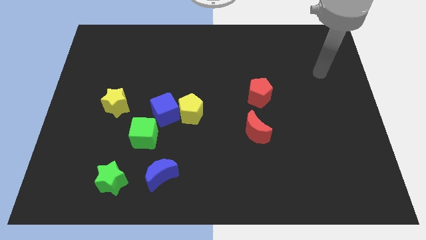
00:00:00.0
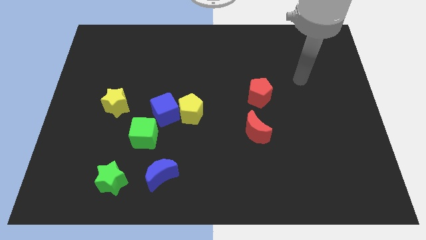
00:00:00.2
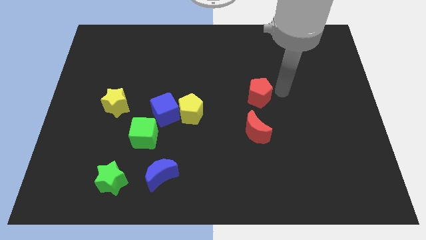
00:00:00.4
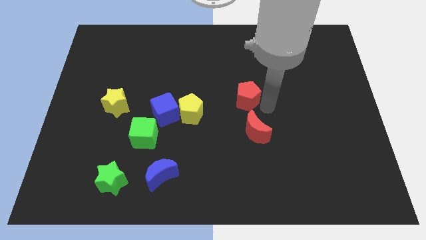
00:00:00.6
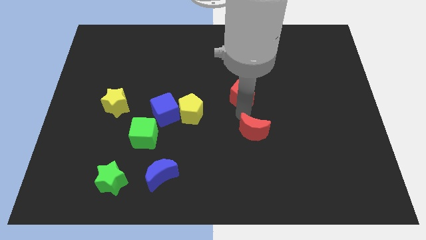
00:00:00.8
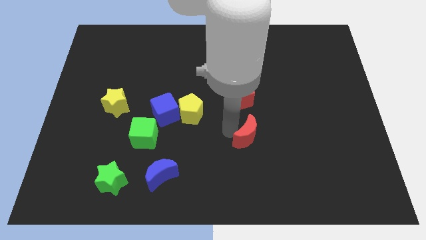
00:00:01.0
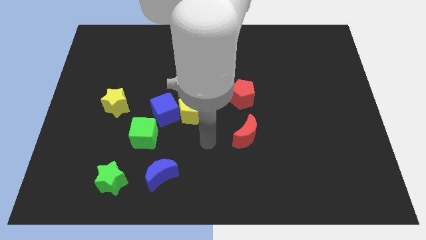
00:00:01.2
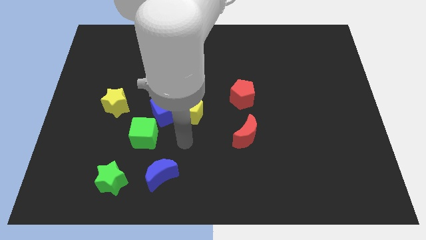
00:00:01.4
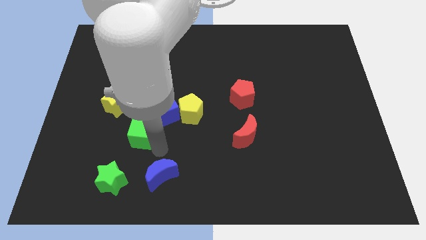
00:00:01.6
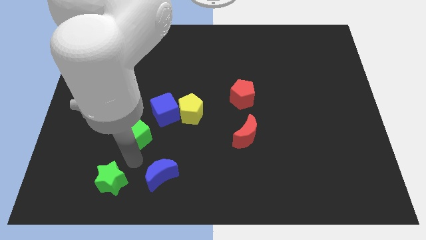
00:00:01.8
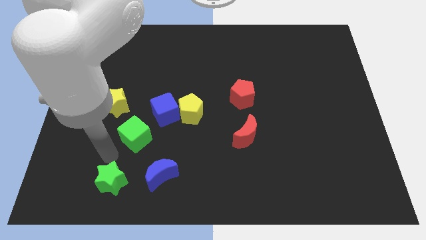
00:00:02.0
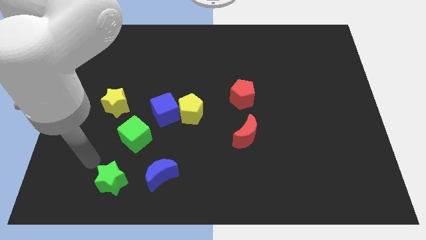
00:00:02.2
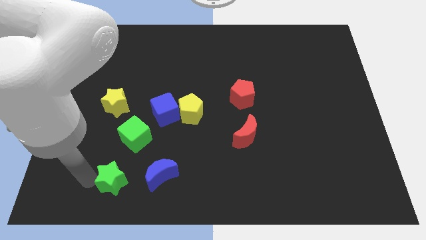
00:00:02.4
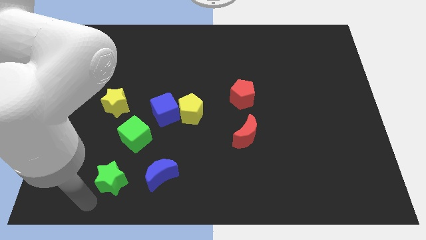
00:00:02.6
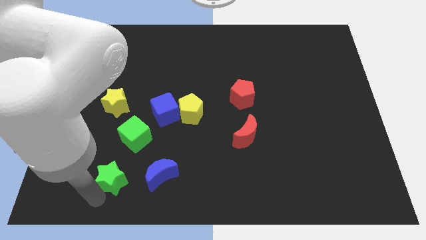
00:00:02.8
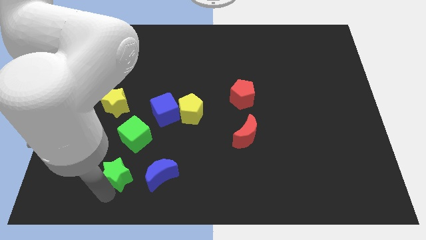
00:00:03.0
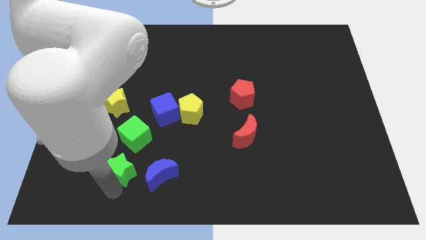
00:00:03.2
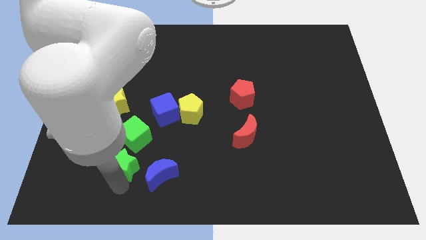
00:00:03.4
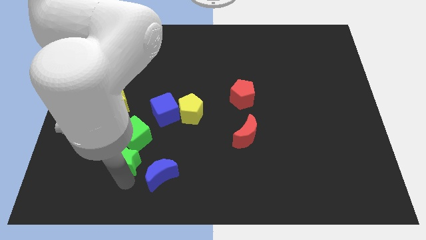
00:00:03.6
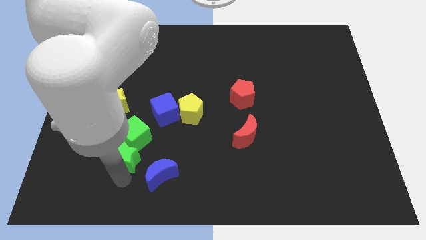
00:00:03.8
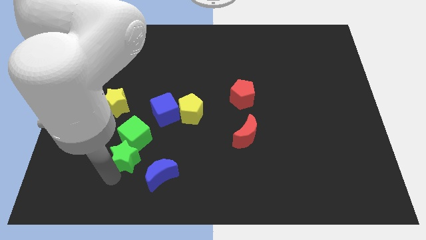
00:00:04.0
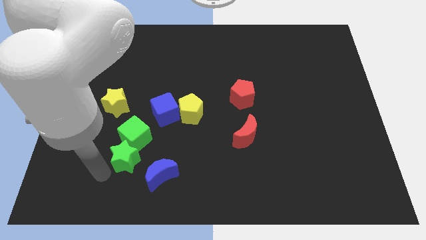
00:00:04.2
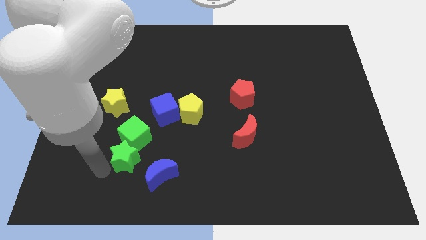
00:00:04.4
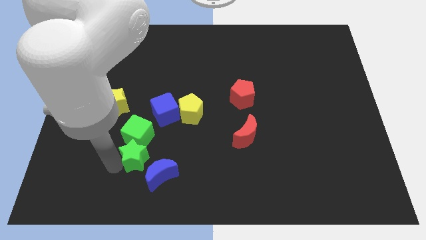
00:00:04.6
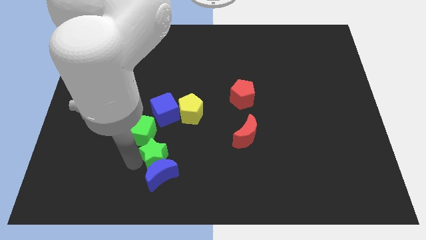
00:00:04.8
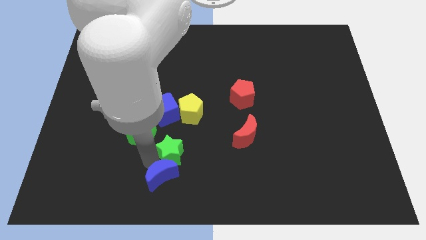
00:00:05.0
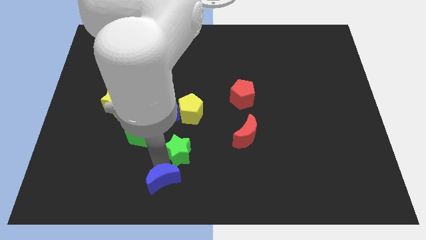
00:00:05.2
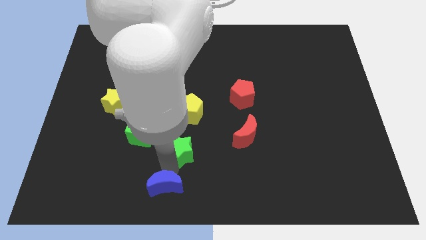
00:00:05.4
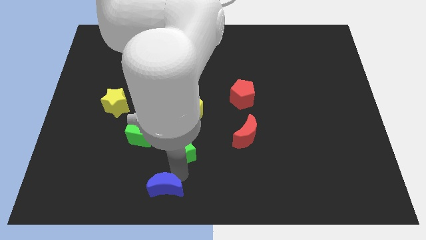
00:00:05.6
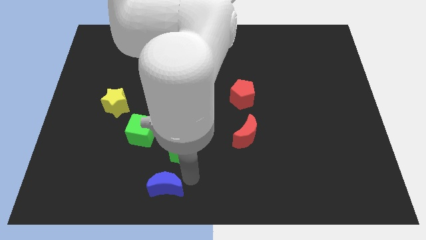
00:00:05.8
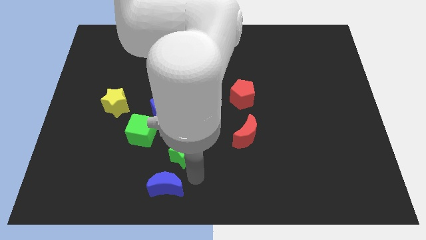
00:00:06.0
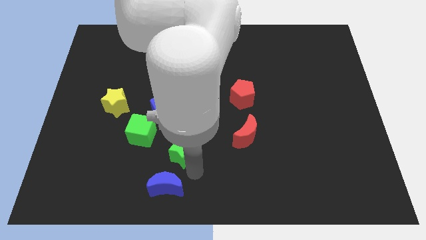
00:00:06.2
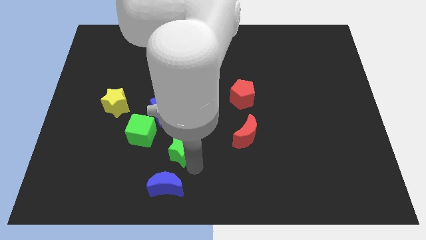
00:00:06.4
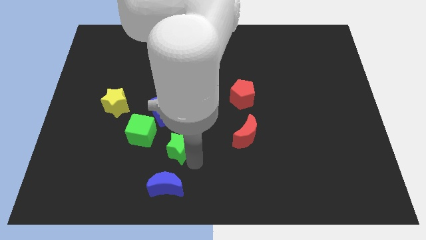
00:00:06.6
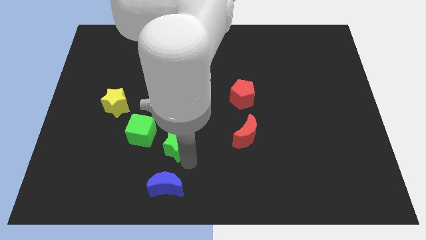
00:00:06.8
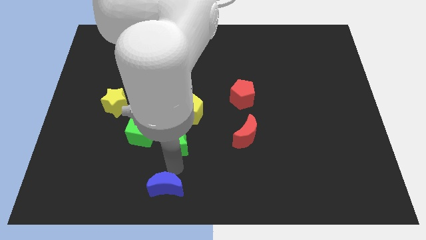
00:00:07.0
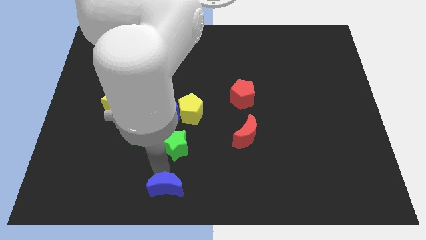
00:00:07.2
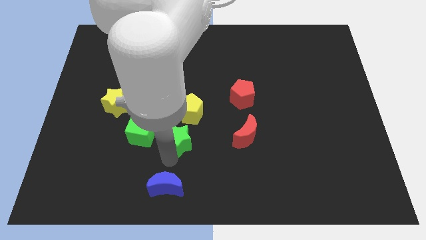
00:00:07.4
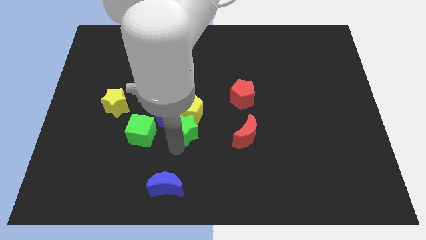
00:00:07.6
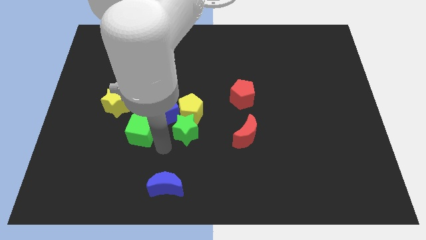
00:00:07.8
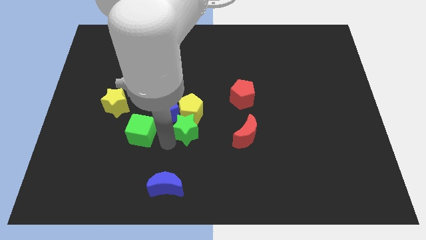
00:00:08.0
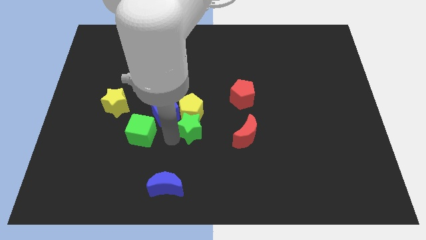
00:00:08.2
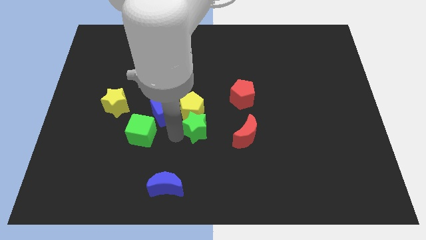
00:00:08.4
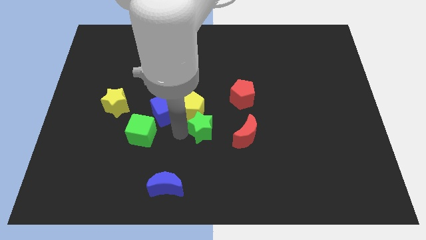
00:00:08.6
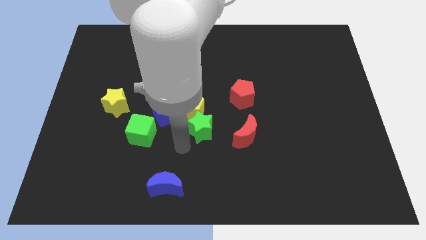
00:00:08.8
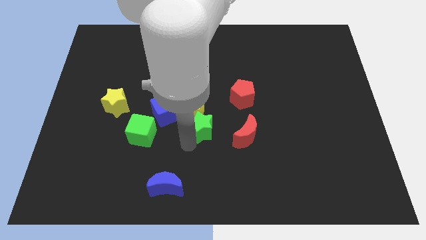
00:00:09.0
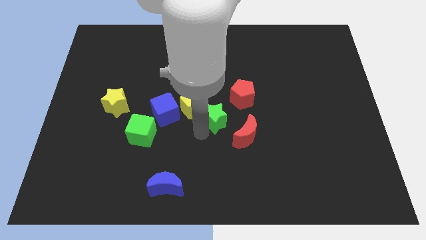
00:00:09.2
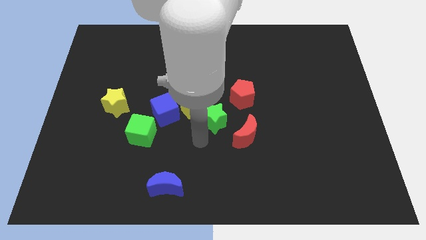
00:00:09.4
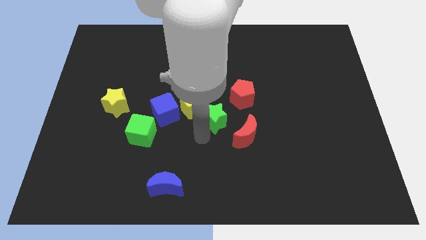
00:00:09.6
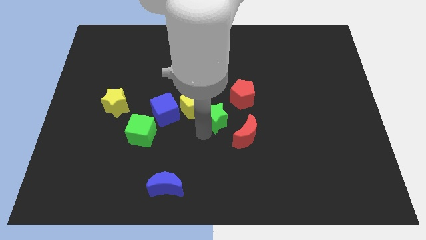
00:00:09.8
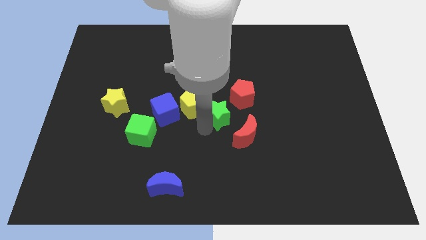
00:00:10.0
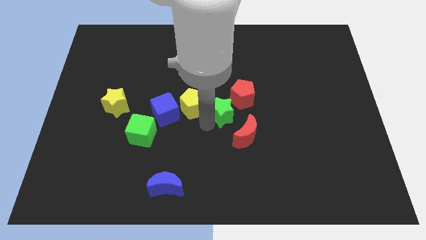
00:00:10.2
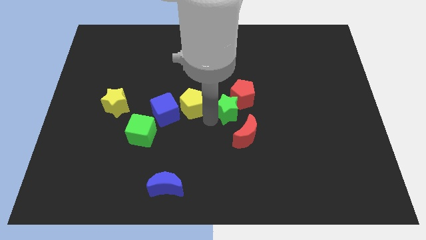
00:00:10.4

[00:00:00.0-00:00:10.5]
put the green star towards the red pentagon

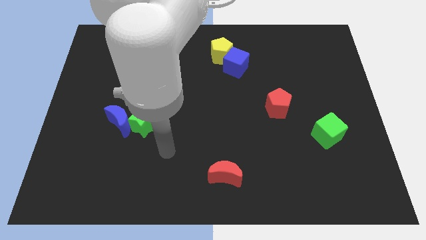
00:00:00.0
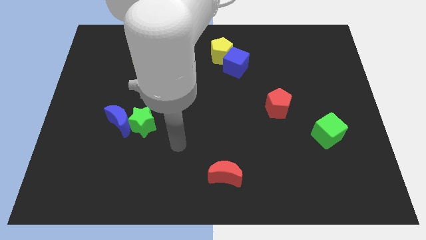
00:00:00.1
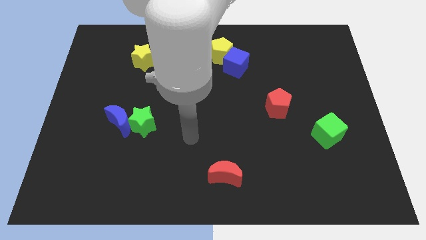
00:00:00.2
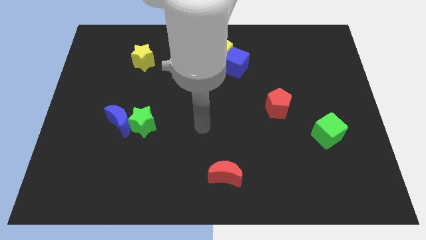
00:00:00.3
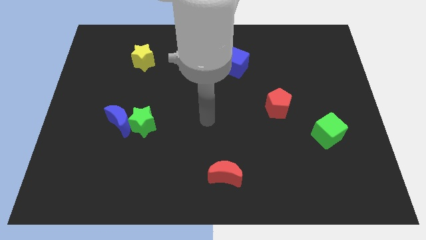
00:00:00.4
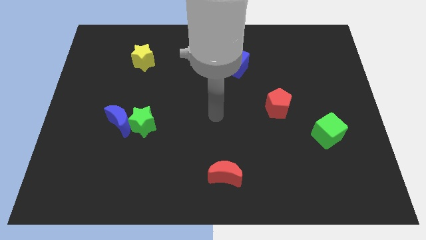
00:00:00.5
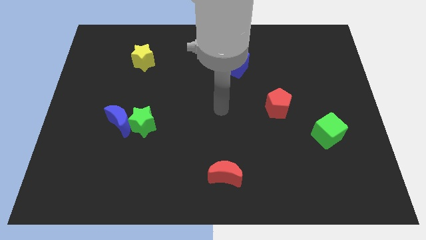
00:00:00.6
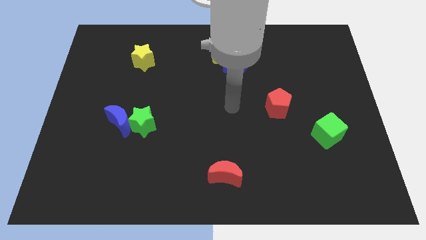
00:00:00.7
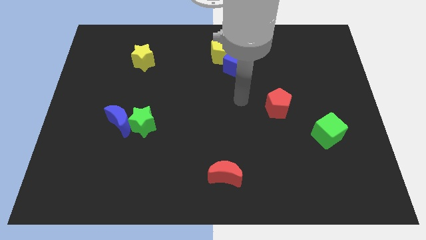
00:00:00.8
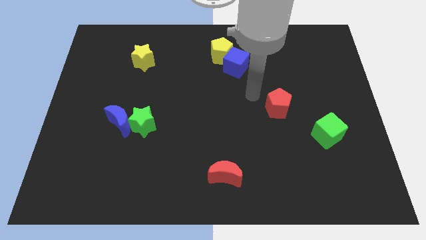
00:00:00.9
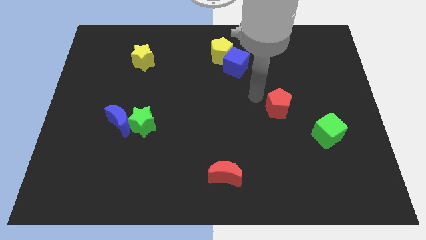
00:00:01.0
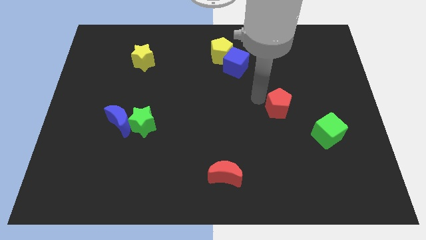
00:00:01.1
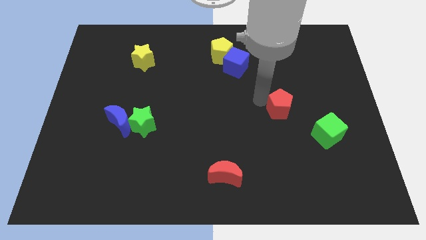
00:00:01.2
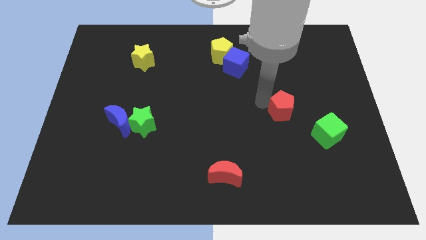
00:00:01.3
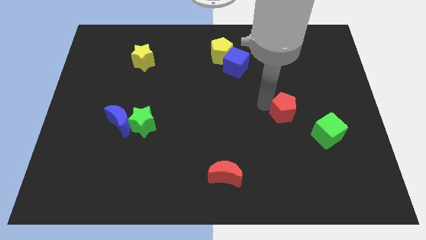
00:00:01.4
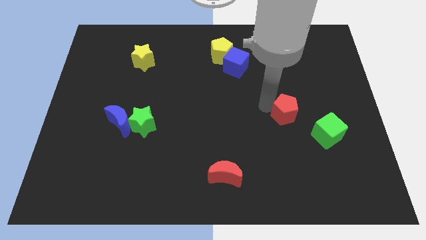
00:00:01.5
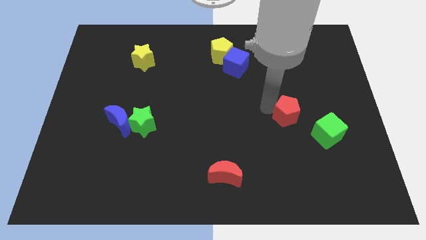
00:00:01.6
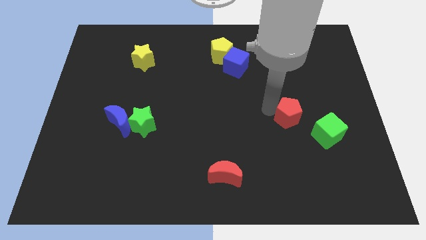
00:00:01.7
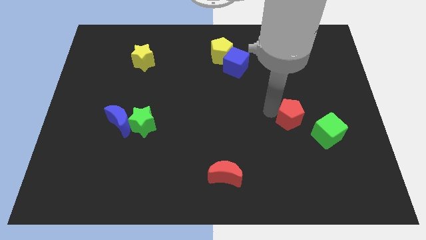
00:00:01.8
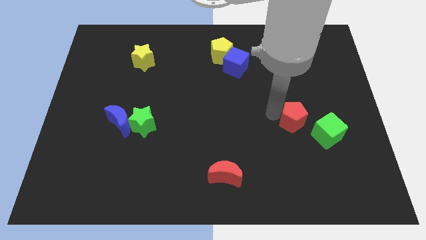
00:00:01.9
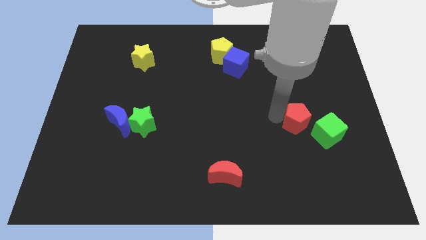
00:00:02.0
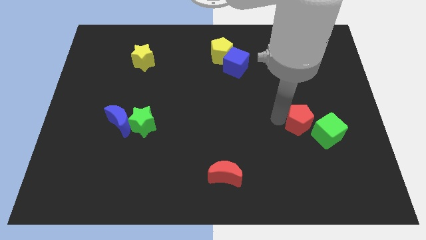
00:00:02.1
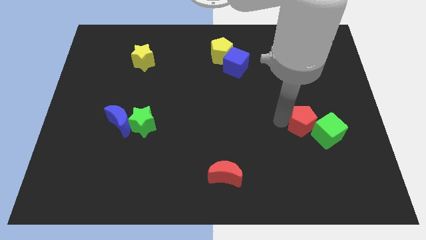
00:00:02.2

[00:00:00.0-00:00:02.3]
push the red pentagon next to the green cube

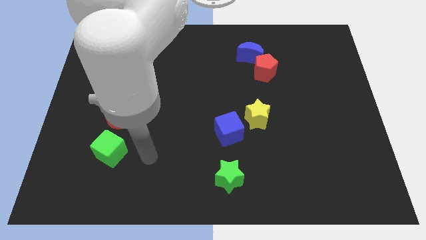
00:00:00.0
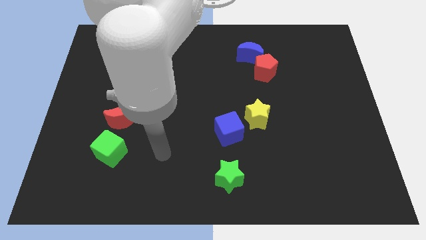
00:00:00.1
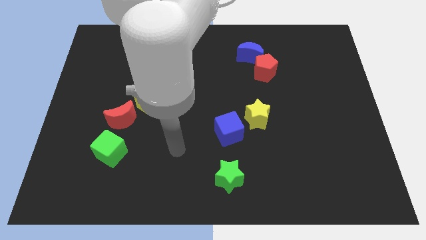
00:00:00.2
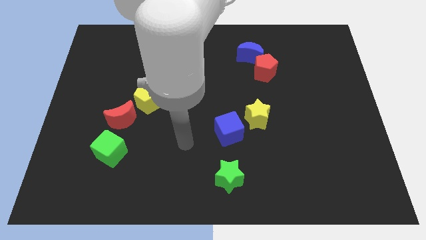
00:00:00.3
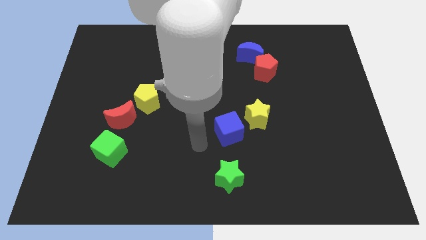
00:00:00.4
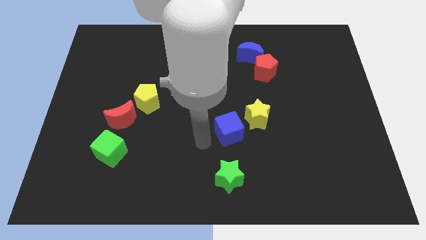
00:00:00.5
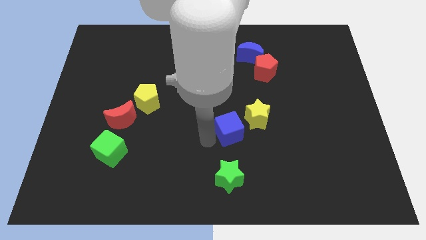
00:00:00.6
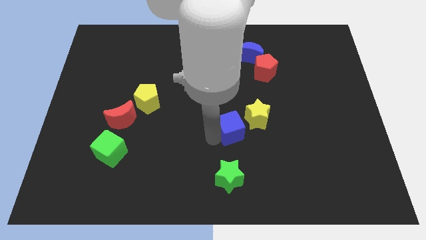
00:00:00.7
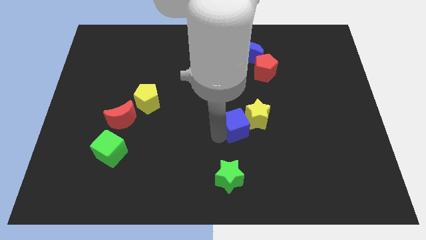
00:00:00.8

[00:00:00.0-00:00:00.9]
put the blue cube towards the yellow star
